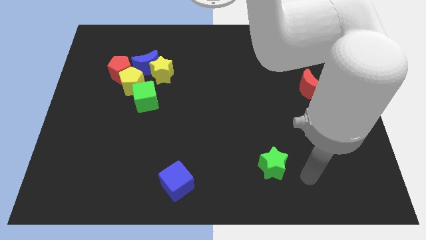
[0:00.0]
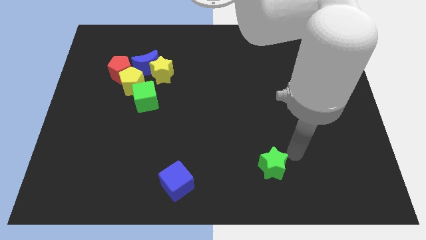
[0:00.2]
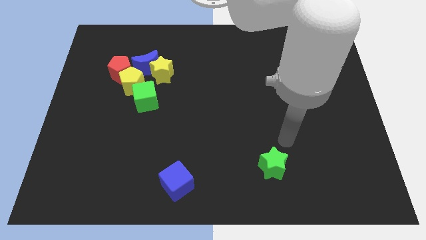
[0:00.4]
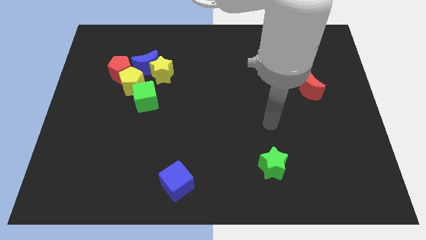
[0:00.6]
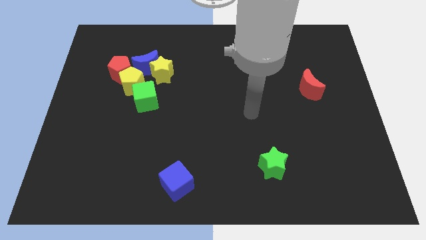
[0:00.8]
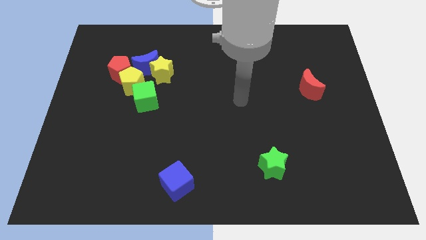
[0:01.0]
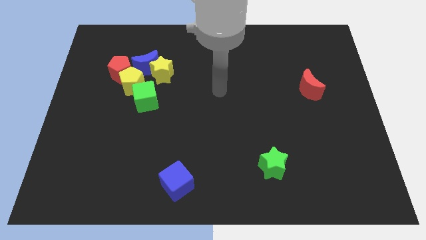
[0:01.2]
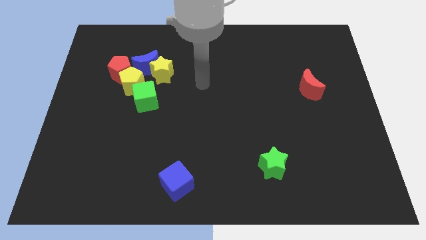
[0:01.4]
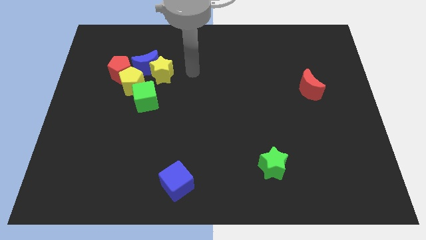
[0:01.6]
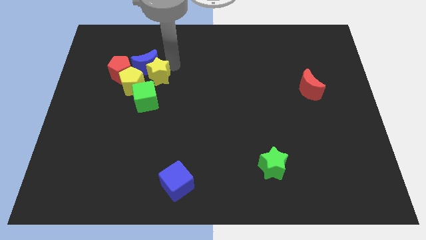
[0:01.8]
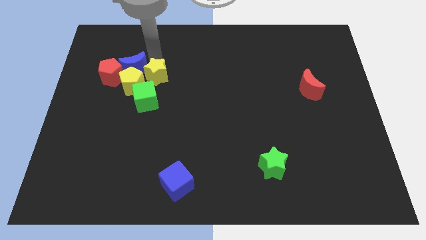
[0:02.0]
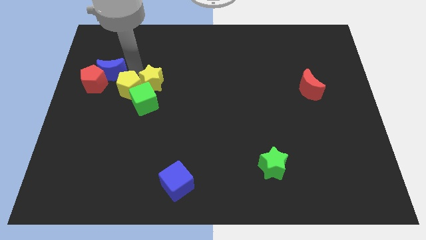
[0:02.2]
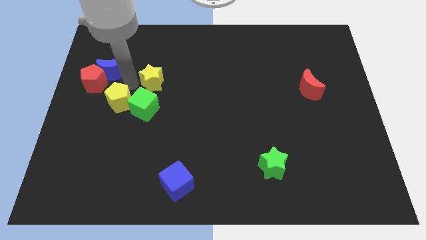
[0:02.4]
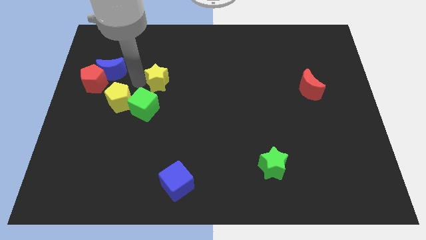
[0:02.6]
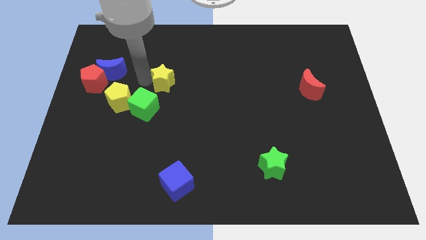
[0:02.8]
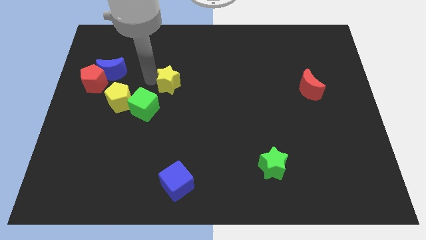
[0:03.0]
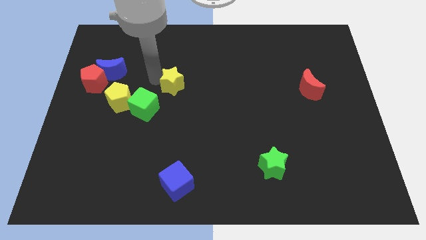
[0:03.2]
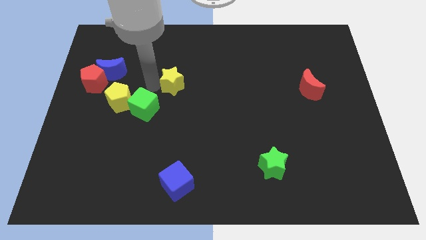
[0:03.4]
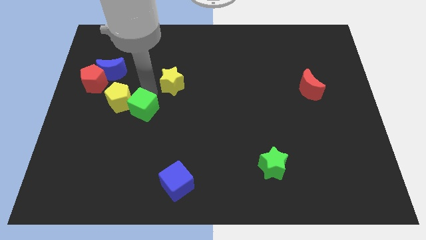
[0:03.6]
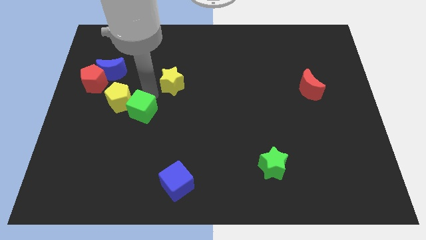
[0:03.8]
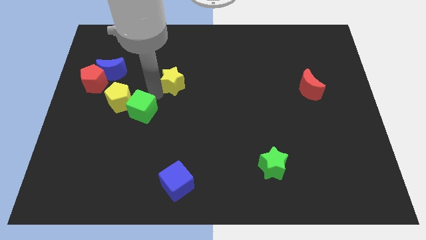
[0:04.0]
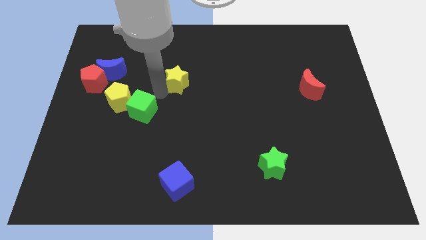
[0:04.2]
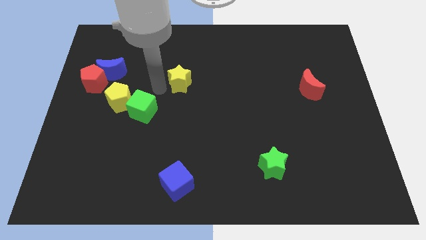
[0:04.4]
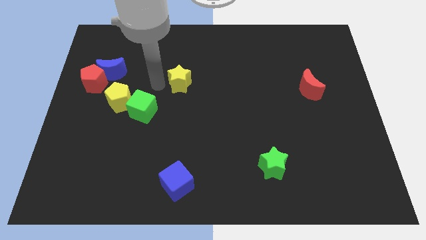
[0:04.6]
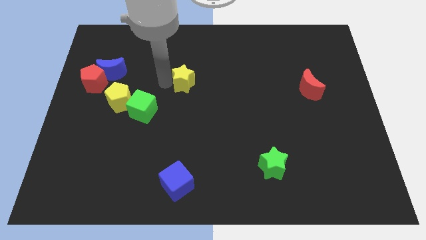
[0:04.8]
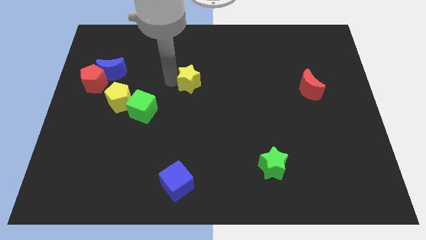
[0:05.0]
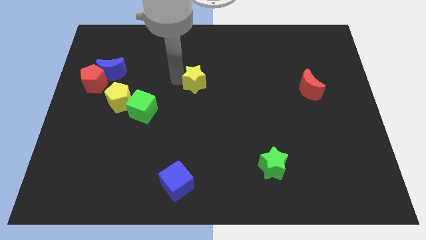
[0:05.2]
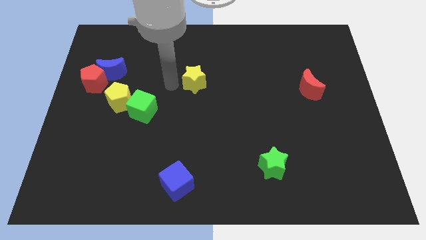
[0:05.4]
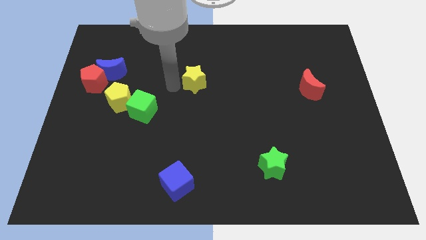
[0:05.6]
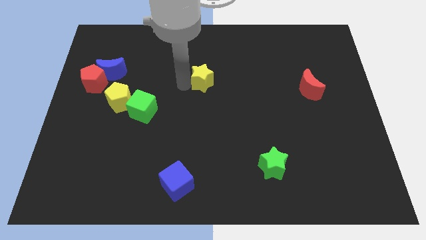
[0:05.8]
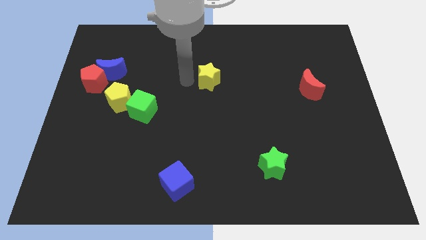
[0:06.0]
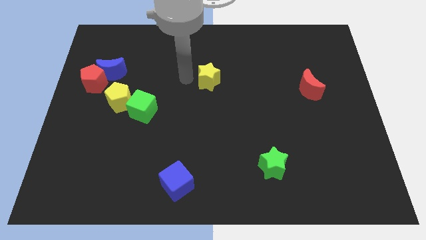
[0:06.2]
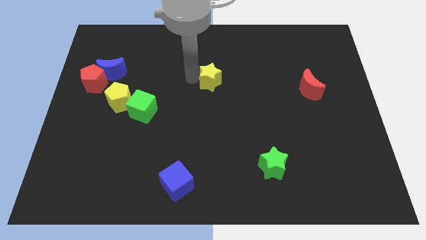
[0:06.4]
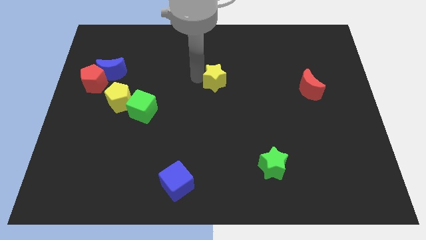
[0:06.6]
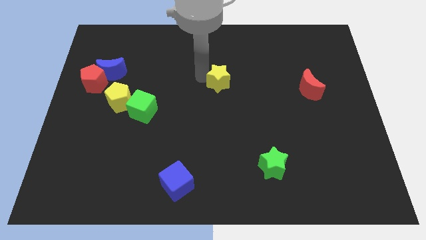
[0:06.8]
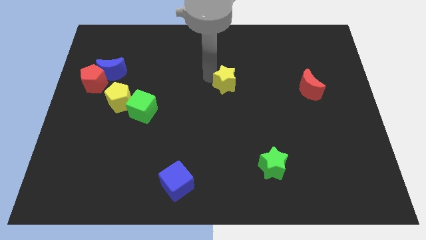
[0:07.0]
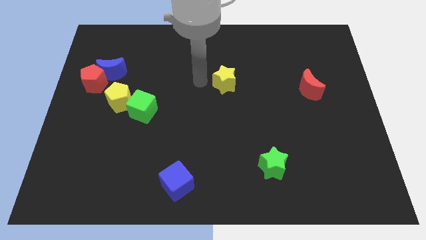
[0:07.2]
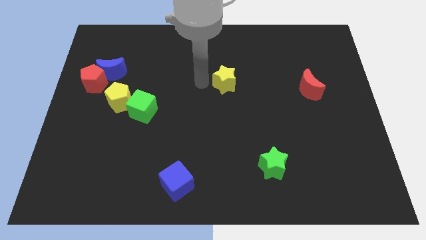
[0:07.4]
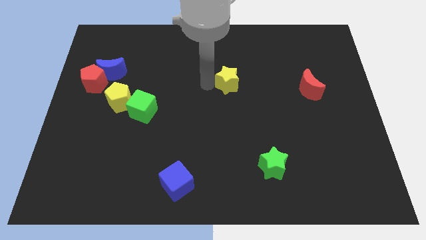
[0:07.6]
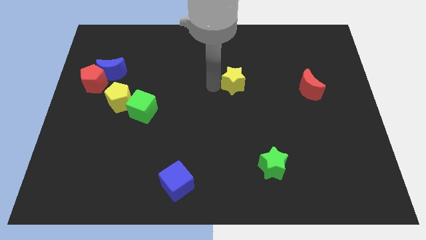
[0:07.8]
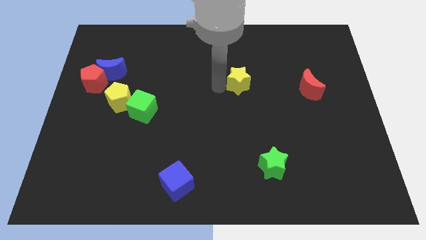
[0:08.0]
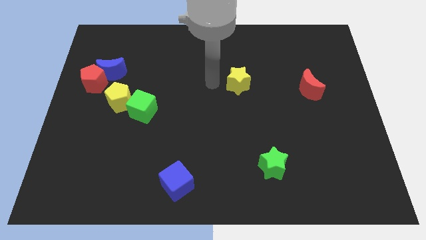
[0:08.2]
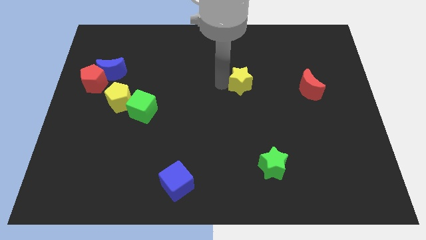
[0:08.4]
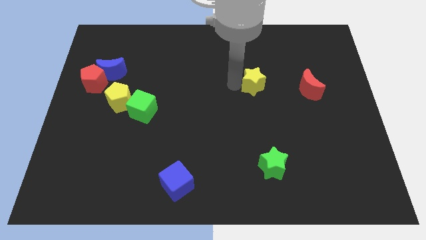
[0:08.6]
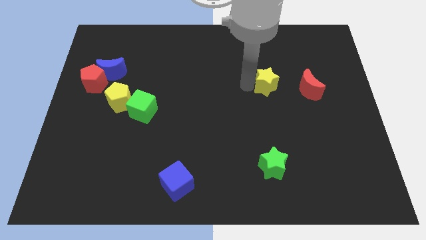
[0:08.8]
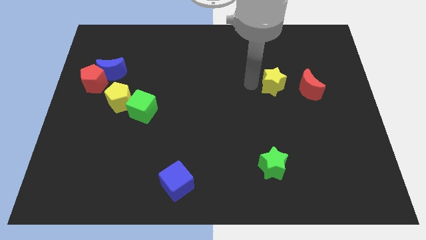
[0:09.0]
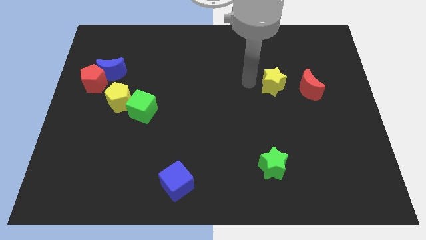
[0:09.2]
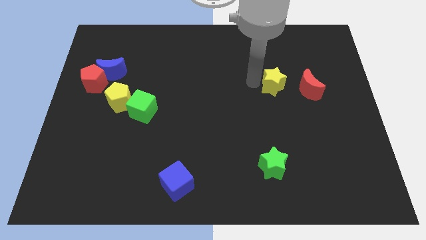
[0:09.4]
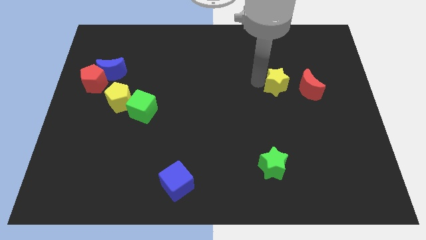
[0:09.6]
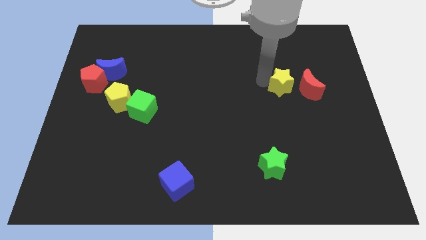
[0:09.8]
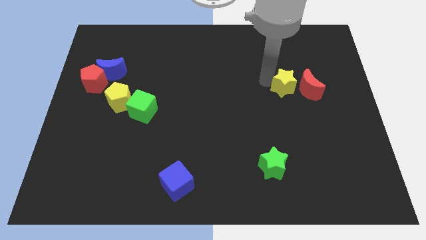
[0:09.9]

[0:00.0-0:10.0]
push the yellow star towards the red moon

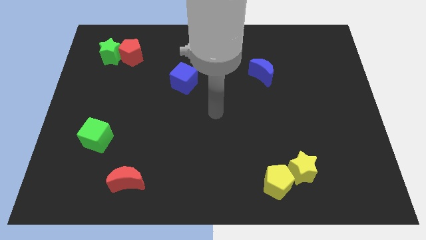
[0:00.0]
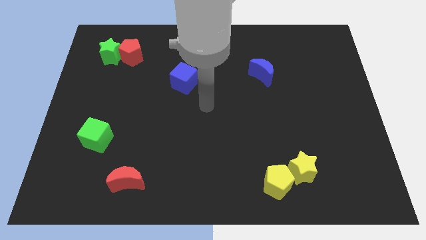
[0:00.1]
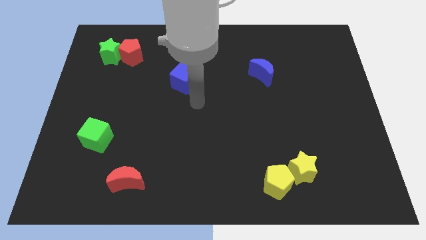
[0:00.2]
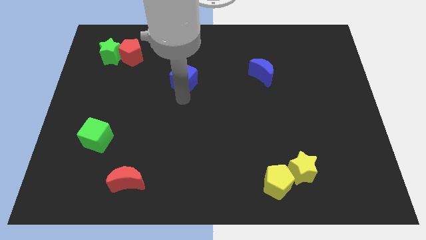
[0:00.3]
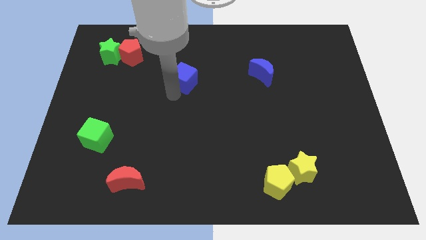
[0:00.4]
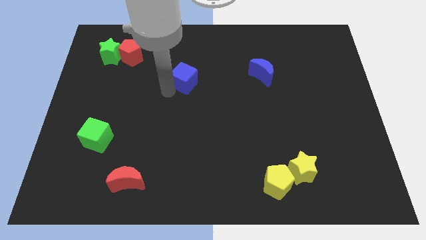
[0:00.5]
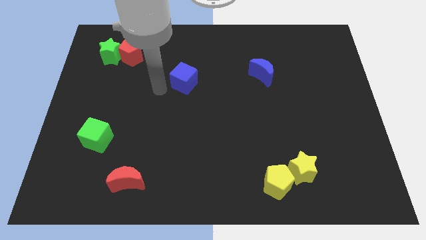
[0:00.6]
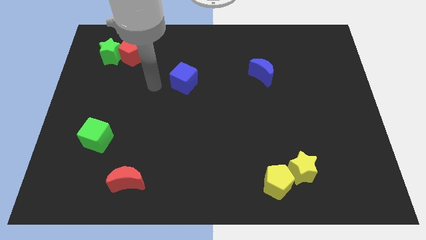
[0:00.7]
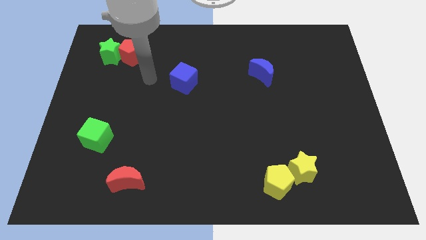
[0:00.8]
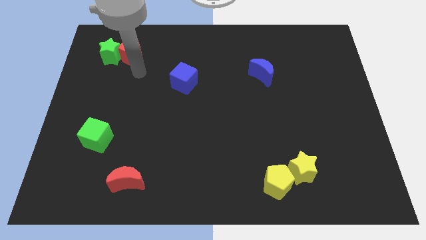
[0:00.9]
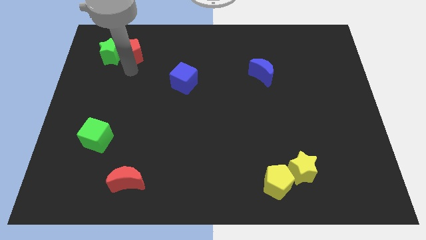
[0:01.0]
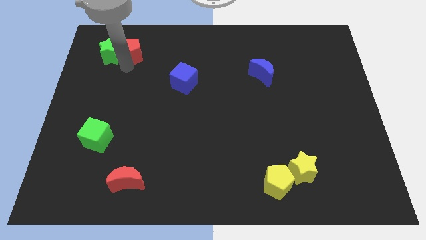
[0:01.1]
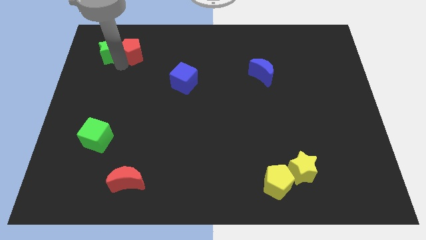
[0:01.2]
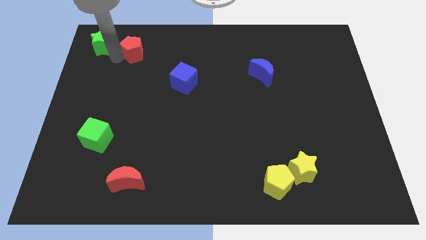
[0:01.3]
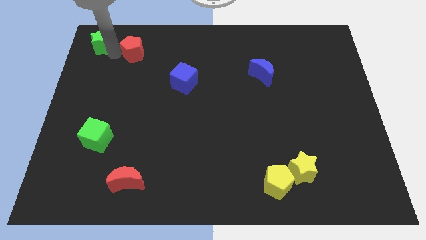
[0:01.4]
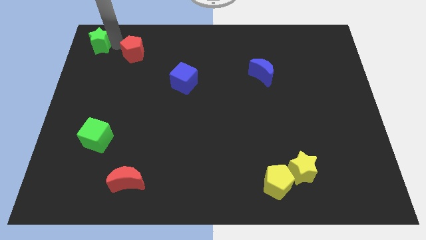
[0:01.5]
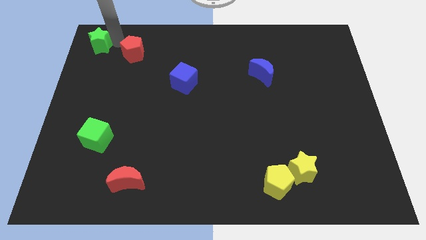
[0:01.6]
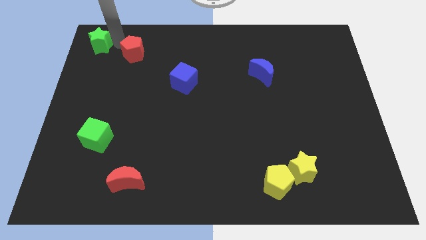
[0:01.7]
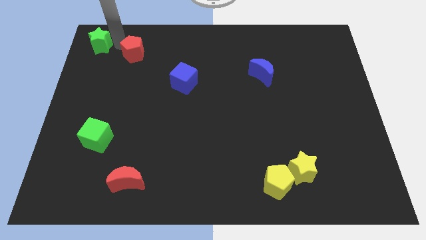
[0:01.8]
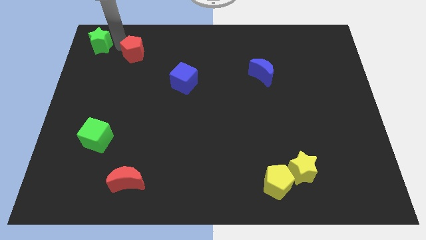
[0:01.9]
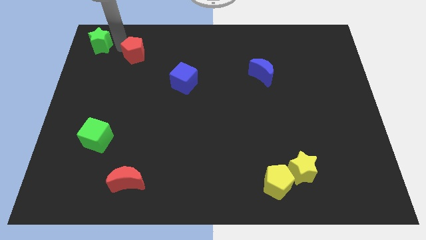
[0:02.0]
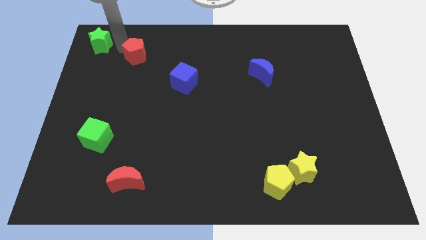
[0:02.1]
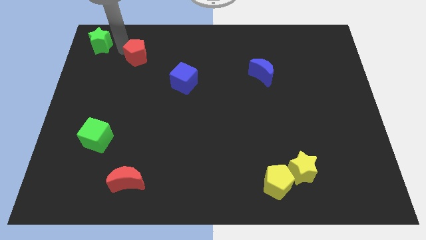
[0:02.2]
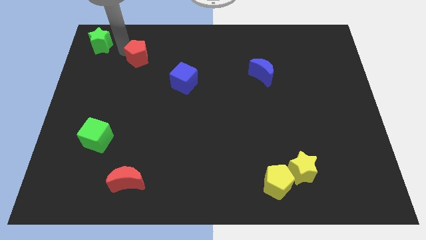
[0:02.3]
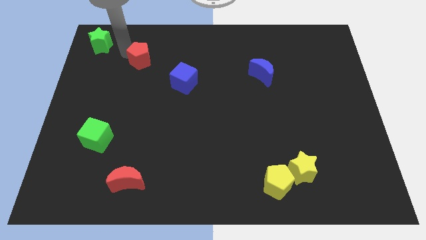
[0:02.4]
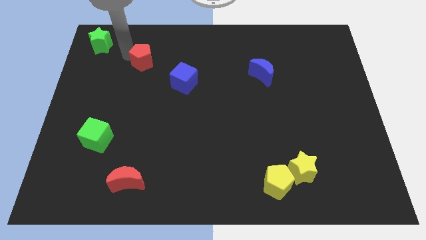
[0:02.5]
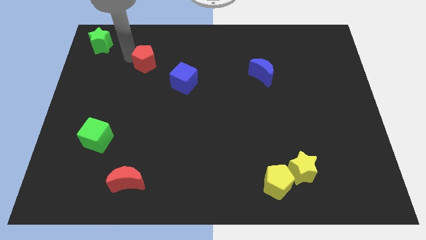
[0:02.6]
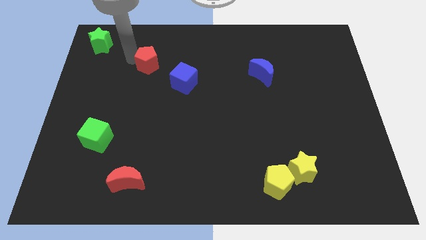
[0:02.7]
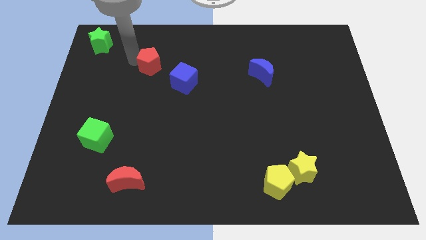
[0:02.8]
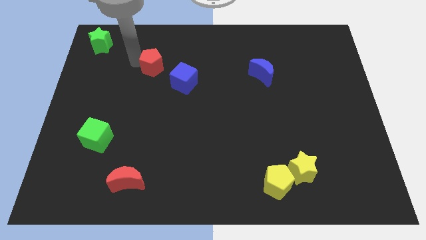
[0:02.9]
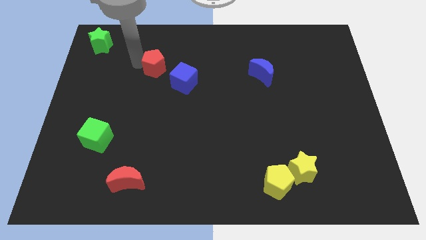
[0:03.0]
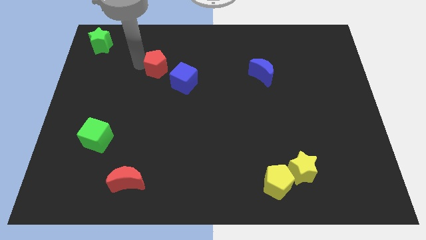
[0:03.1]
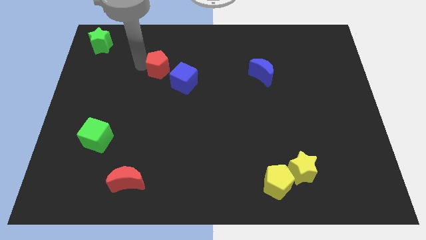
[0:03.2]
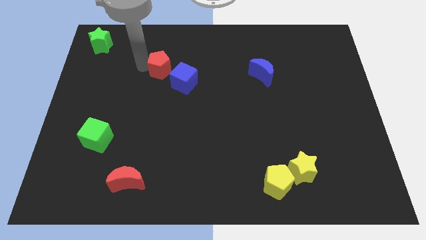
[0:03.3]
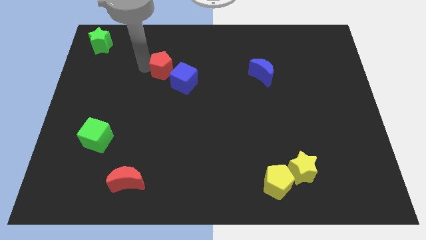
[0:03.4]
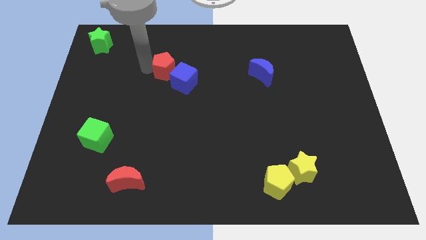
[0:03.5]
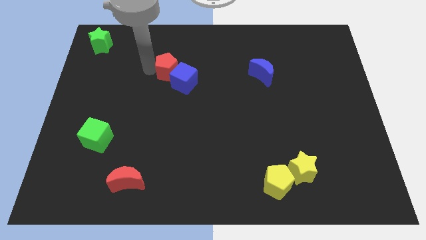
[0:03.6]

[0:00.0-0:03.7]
move the red pentagon towards the blue cube
